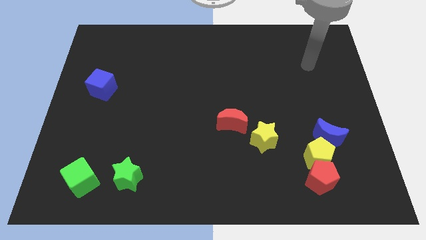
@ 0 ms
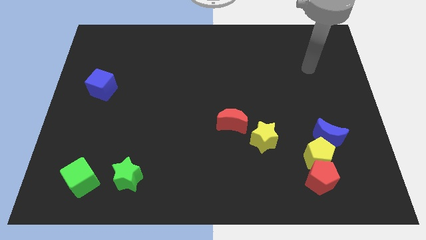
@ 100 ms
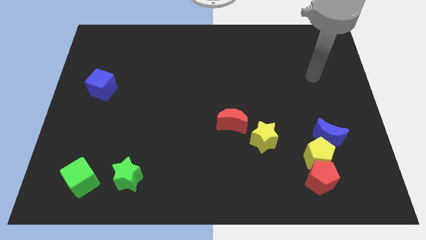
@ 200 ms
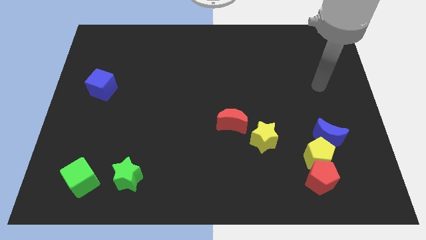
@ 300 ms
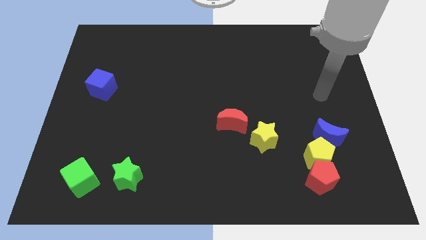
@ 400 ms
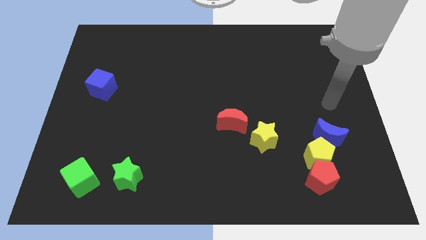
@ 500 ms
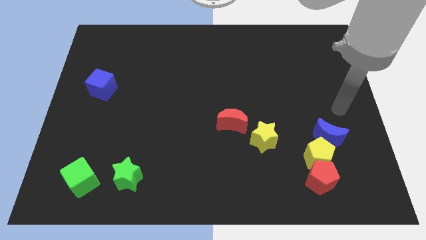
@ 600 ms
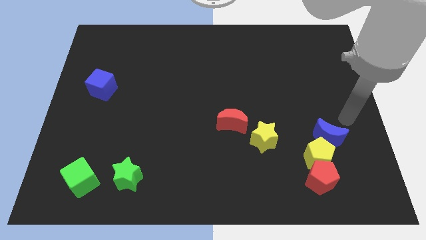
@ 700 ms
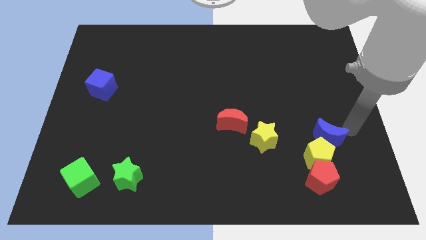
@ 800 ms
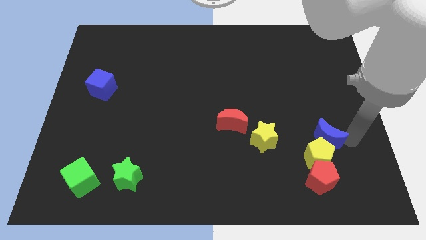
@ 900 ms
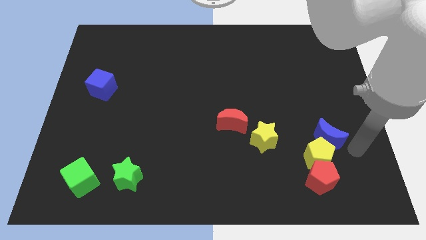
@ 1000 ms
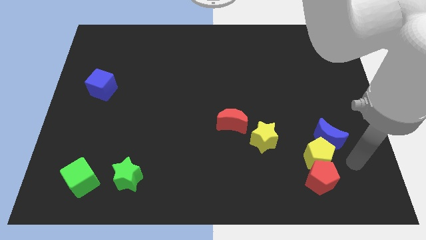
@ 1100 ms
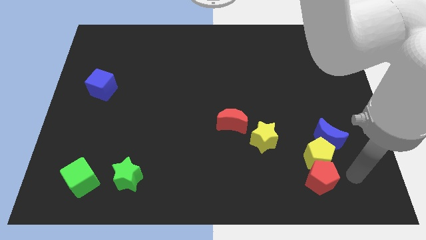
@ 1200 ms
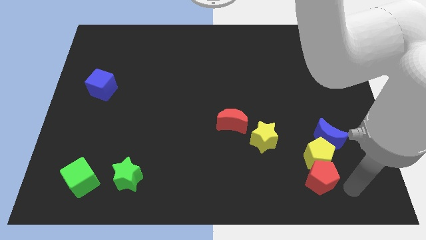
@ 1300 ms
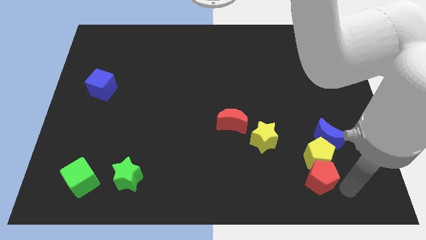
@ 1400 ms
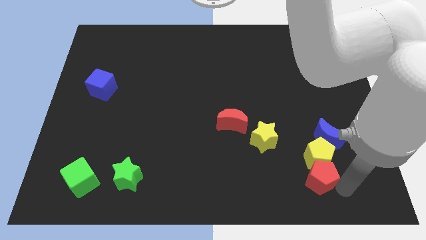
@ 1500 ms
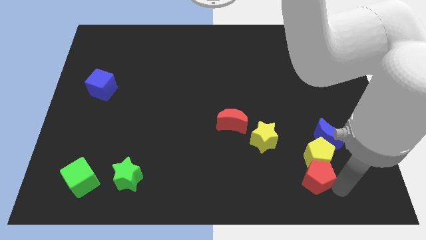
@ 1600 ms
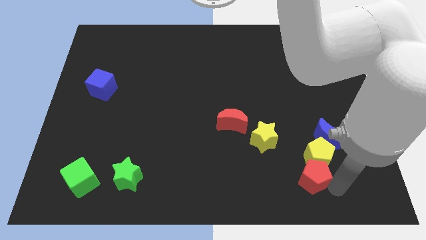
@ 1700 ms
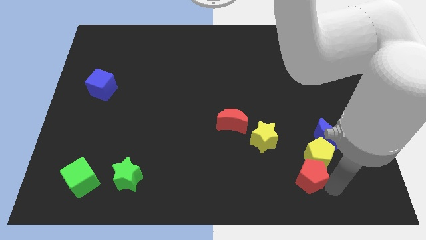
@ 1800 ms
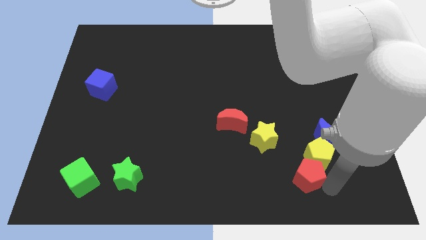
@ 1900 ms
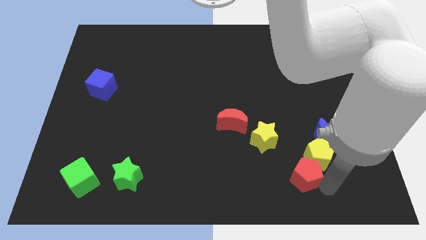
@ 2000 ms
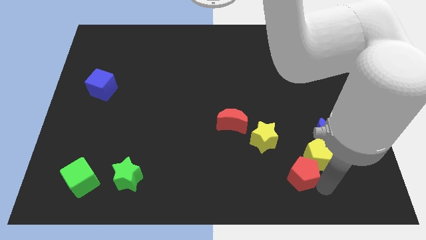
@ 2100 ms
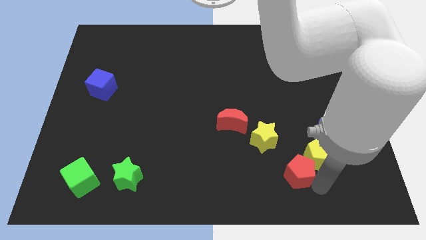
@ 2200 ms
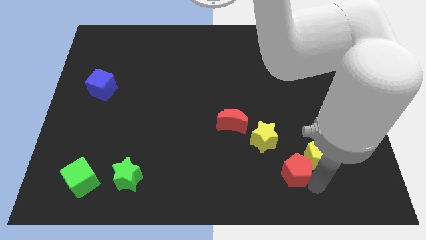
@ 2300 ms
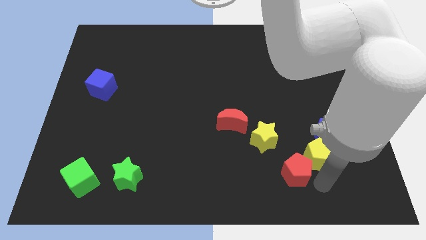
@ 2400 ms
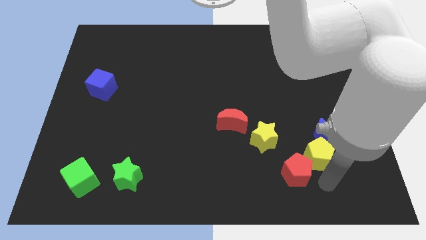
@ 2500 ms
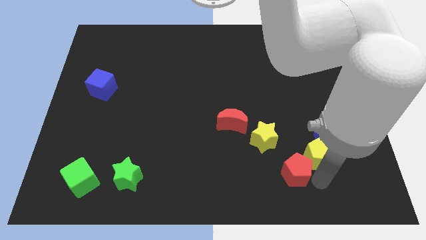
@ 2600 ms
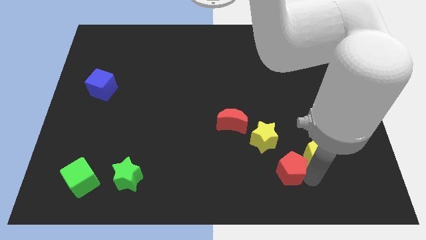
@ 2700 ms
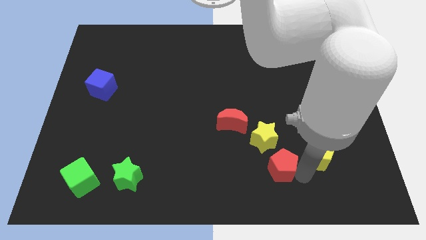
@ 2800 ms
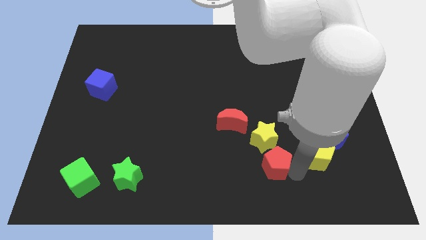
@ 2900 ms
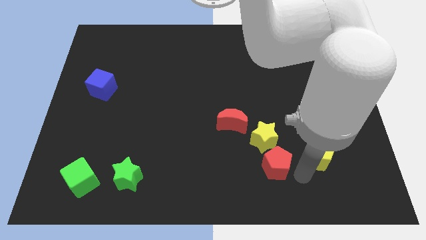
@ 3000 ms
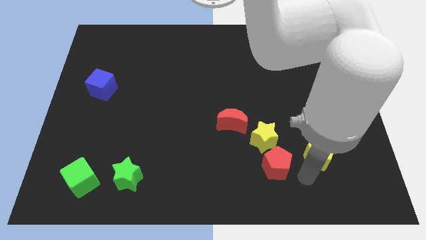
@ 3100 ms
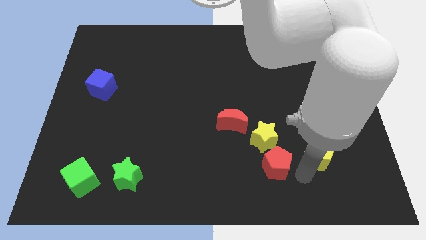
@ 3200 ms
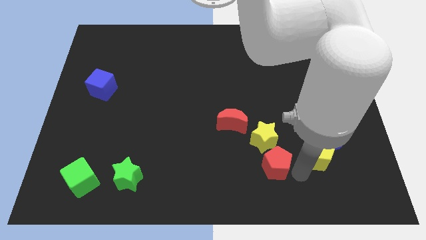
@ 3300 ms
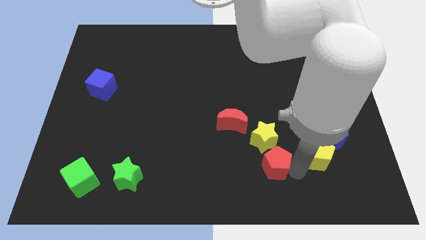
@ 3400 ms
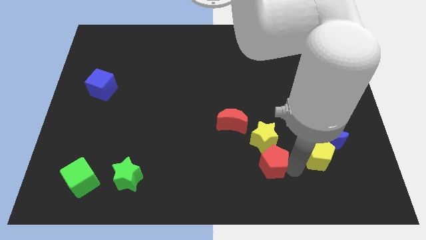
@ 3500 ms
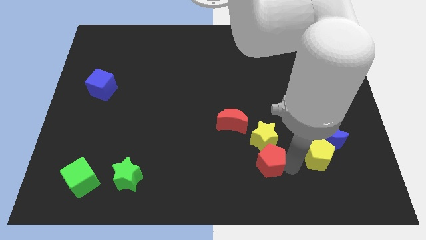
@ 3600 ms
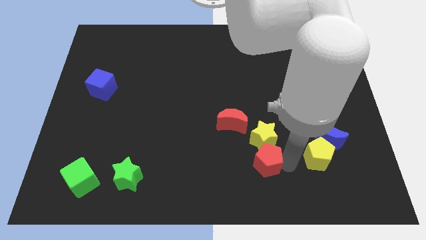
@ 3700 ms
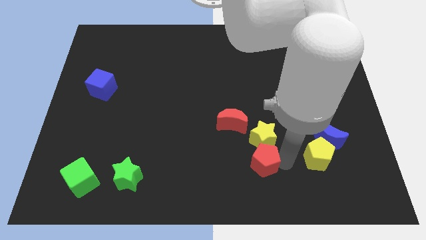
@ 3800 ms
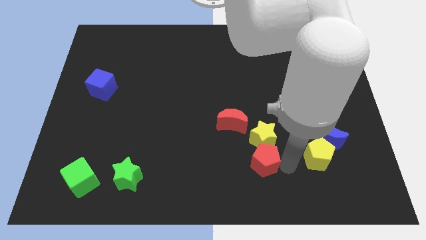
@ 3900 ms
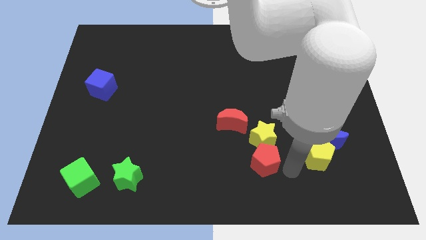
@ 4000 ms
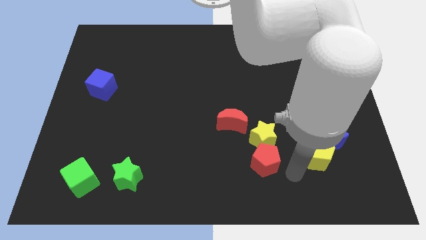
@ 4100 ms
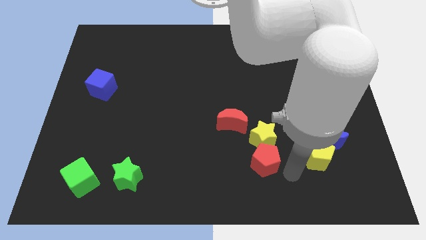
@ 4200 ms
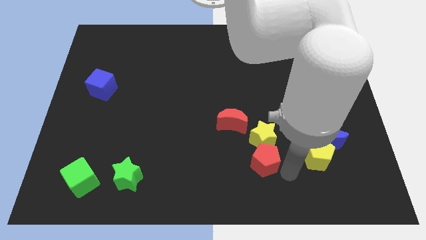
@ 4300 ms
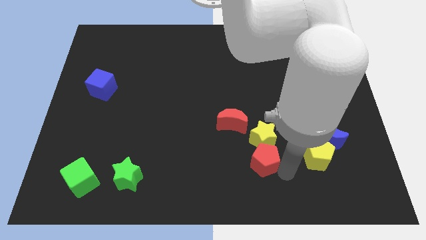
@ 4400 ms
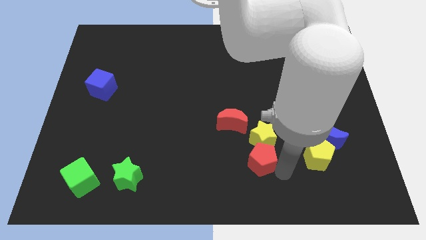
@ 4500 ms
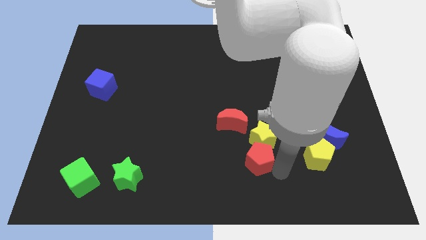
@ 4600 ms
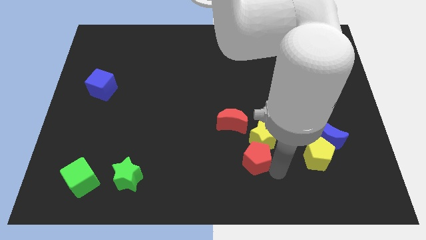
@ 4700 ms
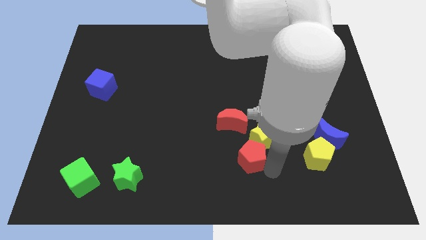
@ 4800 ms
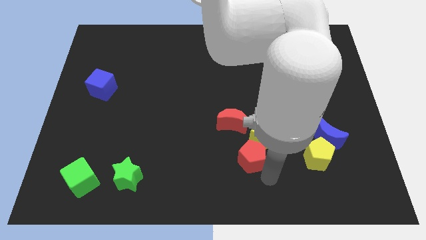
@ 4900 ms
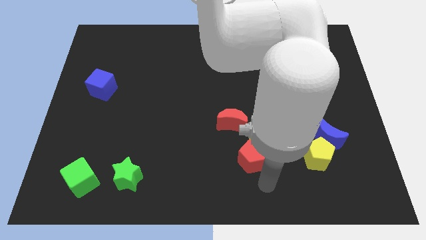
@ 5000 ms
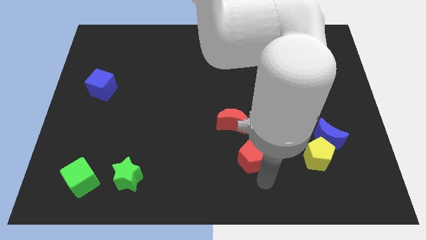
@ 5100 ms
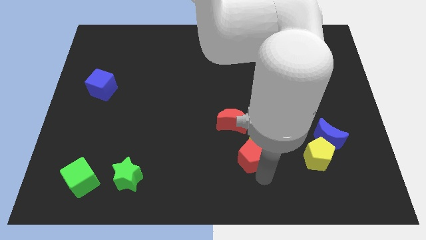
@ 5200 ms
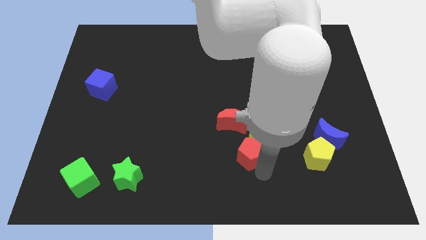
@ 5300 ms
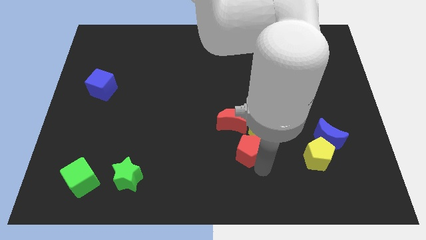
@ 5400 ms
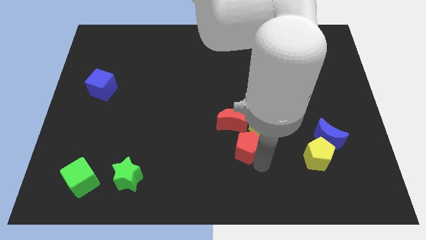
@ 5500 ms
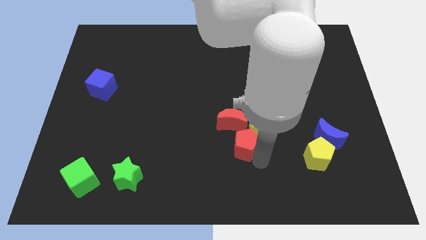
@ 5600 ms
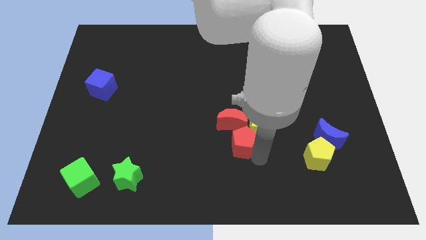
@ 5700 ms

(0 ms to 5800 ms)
move the red pentagon to the red moon

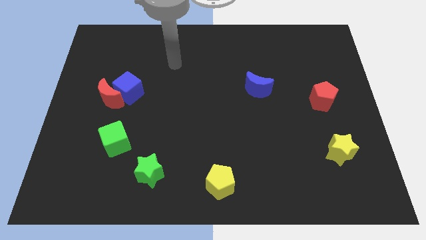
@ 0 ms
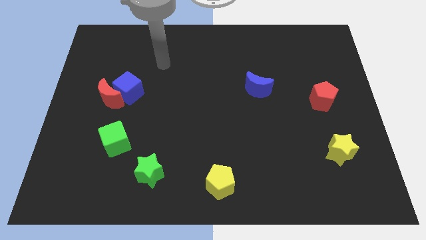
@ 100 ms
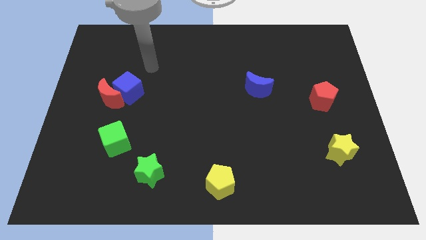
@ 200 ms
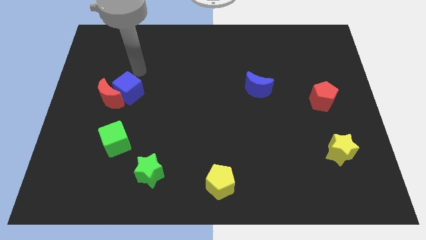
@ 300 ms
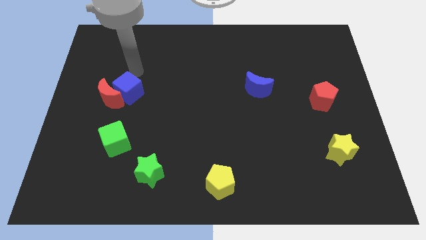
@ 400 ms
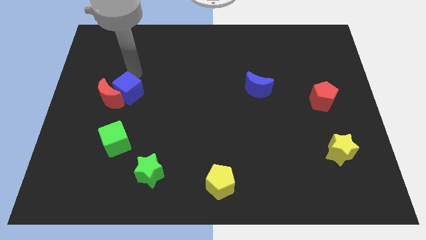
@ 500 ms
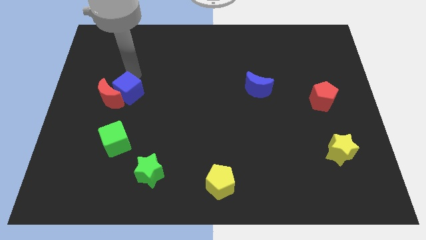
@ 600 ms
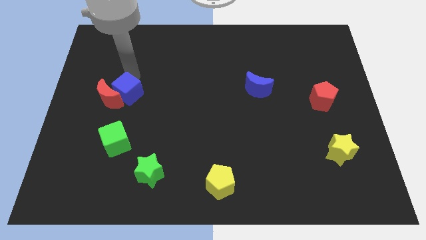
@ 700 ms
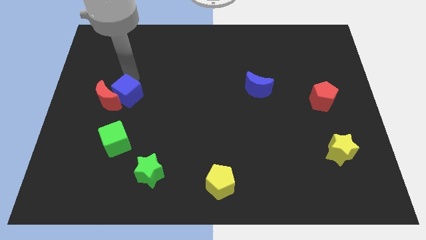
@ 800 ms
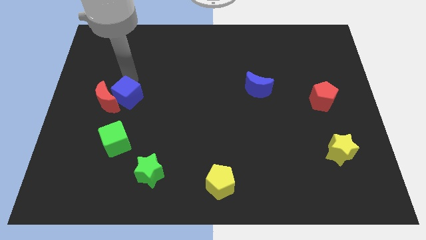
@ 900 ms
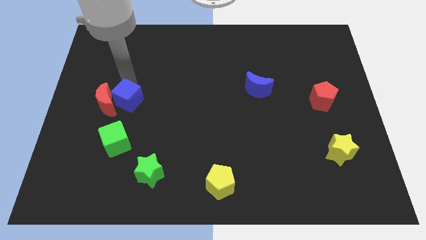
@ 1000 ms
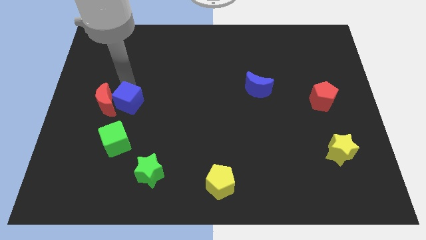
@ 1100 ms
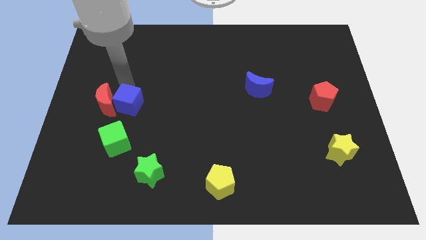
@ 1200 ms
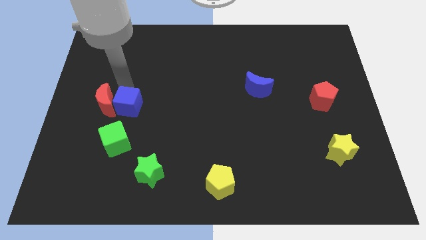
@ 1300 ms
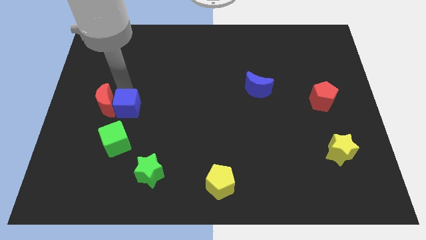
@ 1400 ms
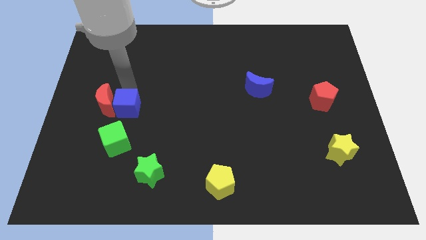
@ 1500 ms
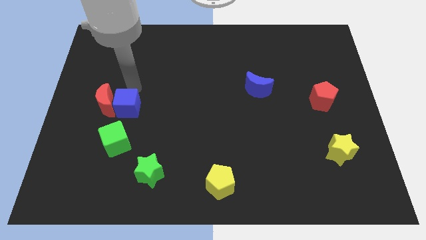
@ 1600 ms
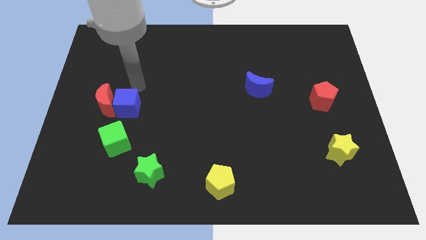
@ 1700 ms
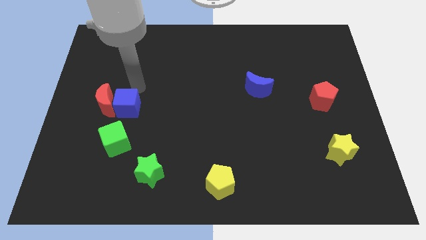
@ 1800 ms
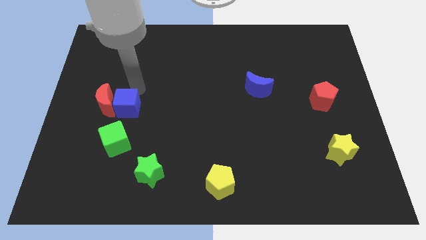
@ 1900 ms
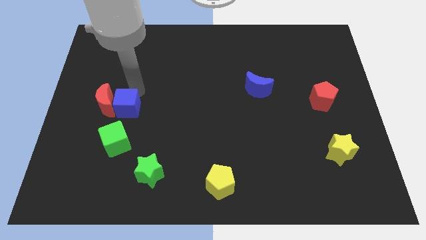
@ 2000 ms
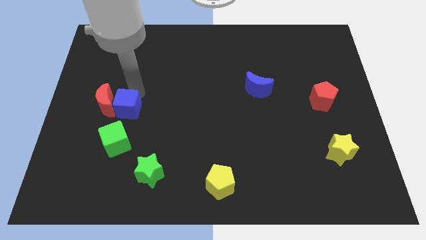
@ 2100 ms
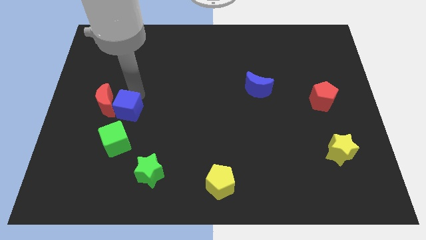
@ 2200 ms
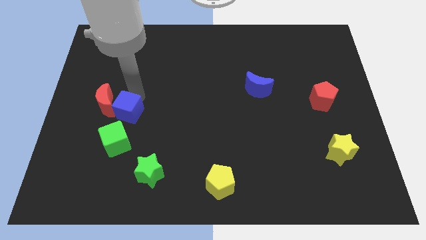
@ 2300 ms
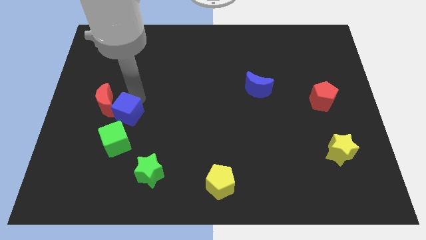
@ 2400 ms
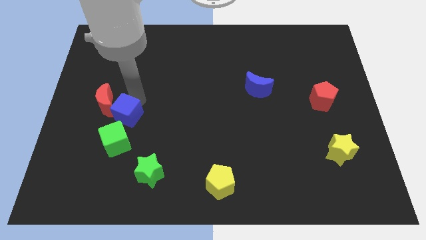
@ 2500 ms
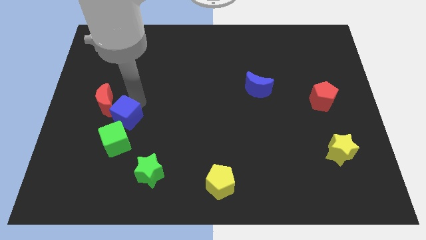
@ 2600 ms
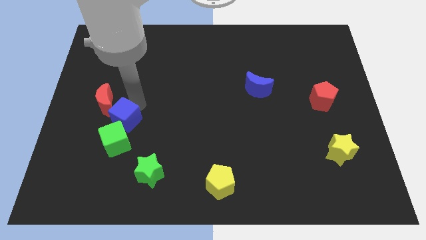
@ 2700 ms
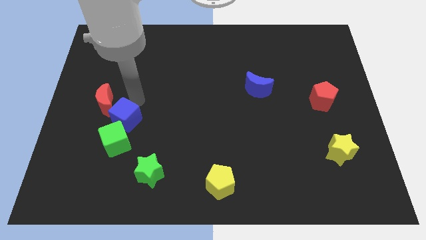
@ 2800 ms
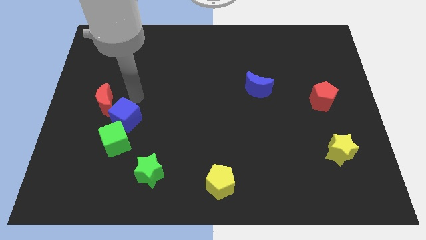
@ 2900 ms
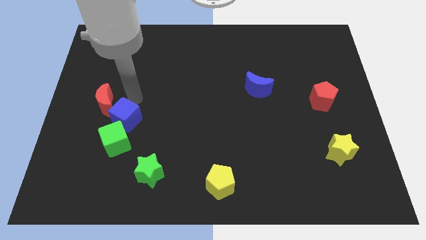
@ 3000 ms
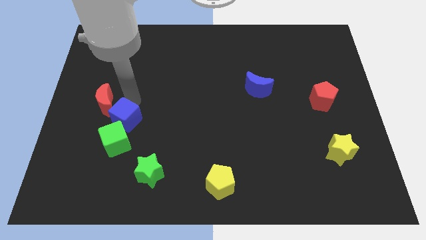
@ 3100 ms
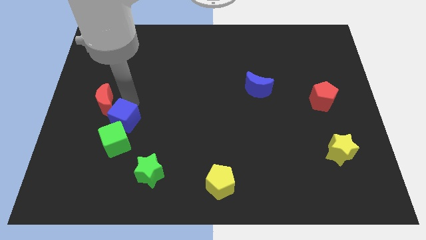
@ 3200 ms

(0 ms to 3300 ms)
put the blue cube next to the green cube
